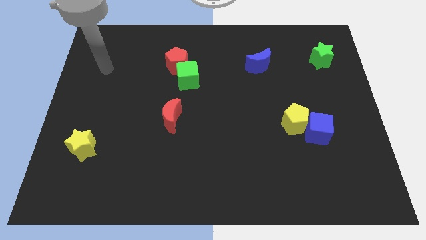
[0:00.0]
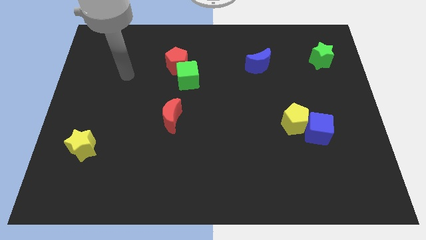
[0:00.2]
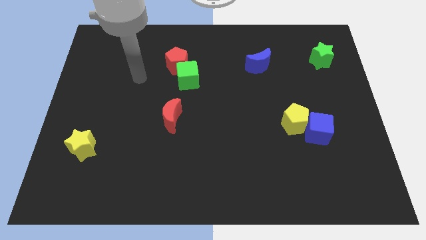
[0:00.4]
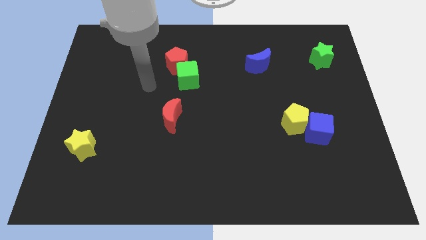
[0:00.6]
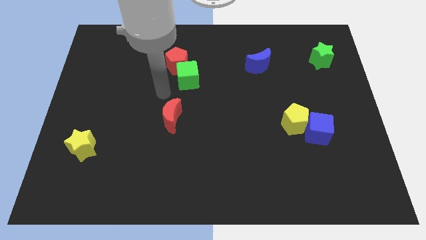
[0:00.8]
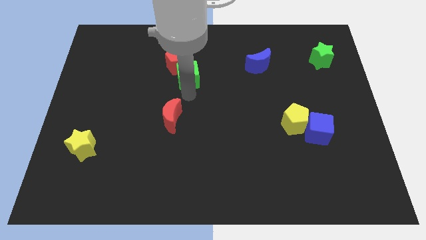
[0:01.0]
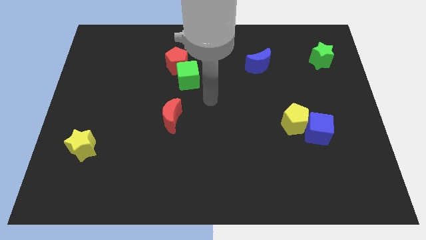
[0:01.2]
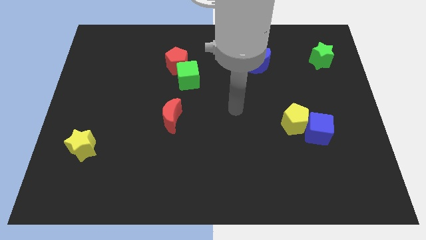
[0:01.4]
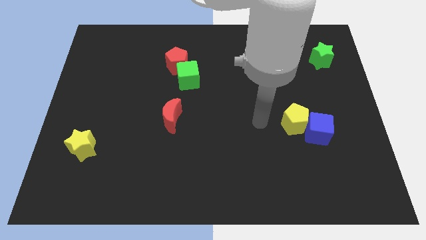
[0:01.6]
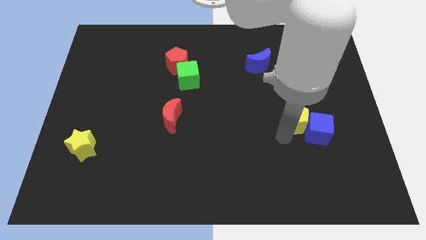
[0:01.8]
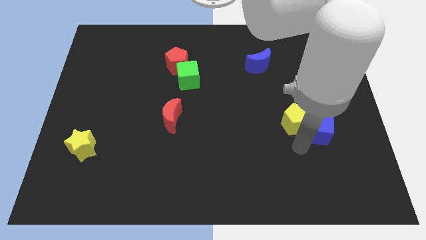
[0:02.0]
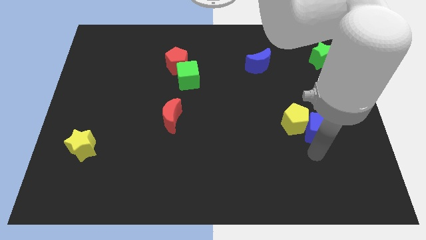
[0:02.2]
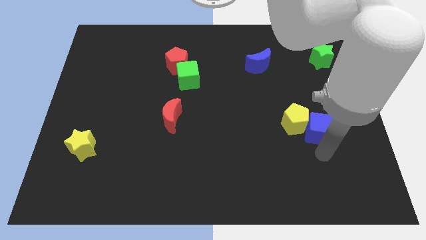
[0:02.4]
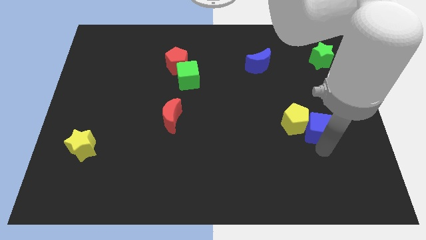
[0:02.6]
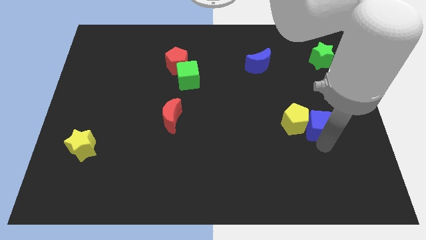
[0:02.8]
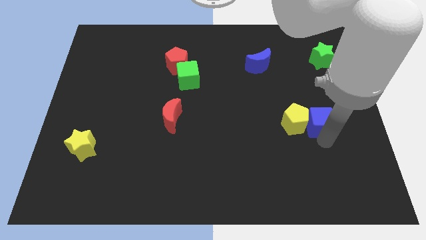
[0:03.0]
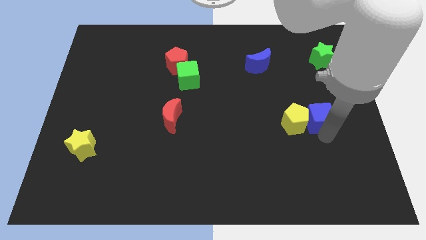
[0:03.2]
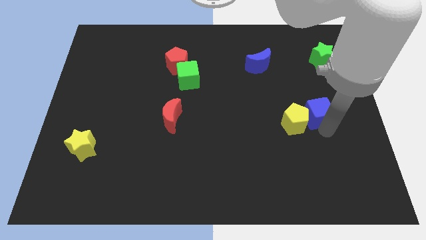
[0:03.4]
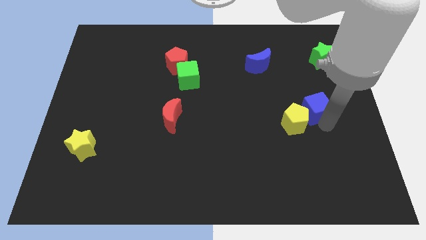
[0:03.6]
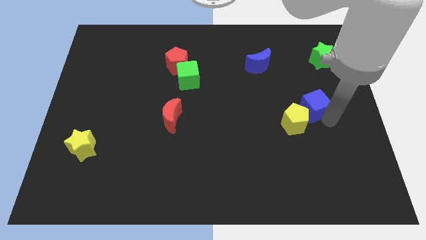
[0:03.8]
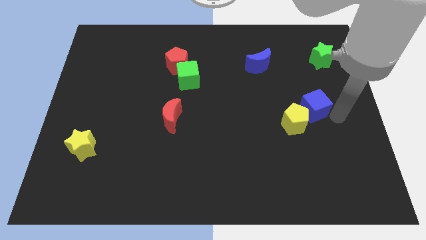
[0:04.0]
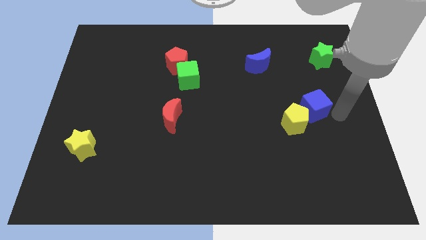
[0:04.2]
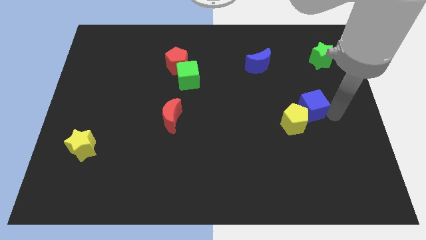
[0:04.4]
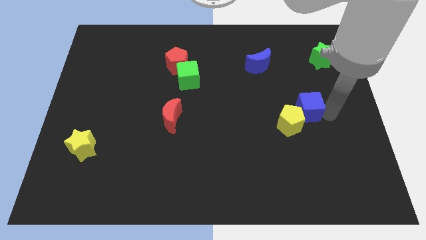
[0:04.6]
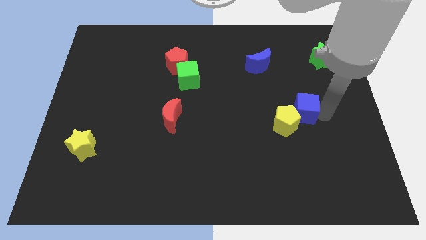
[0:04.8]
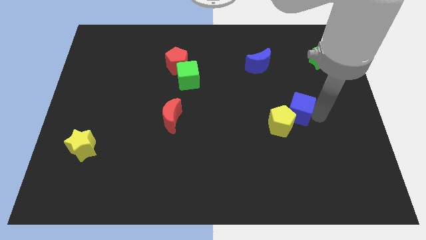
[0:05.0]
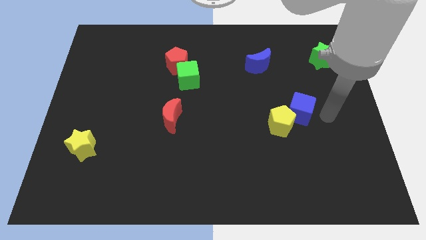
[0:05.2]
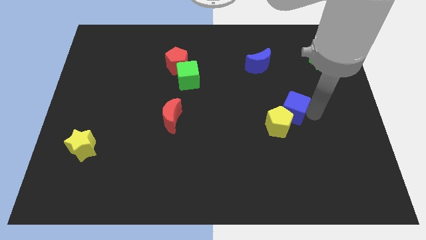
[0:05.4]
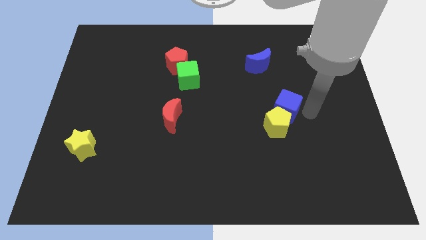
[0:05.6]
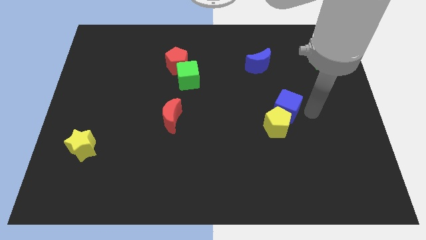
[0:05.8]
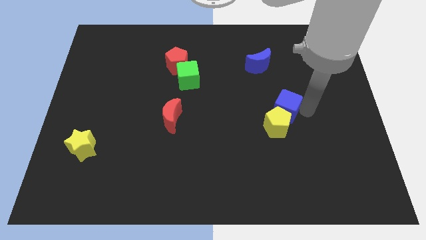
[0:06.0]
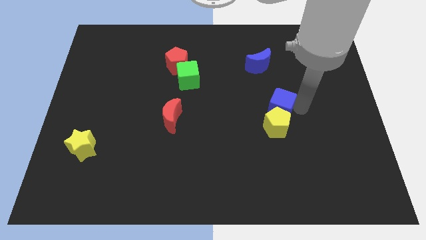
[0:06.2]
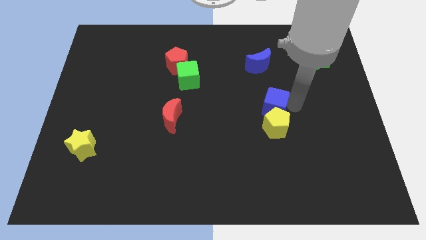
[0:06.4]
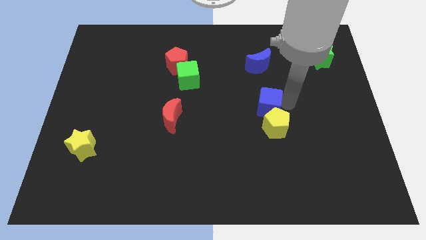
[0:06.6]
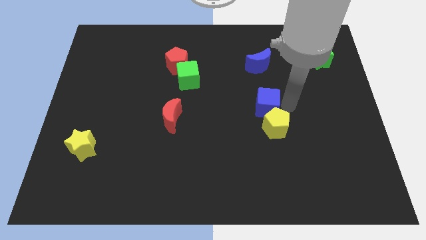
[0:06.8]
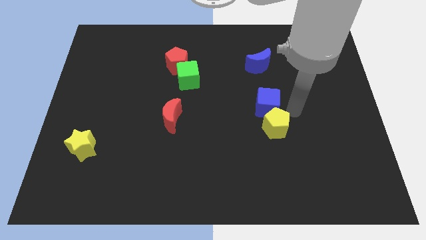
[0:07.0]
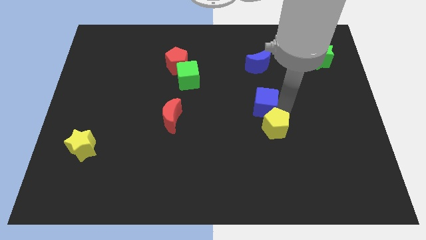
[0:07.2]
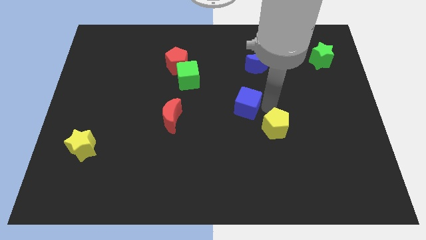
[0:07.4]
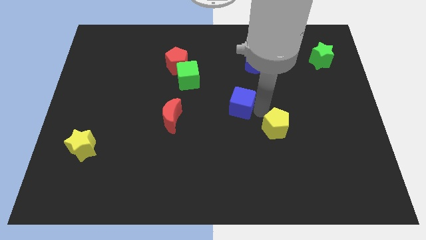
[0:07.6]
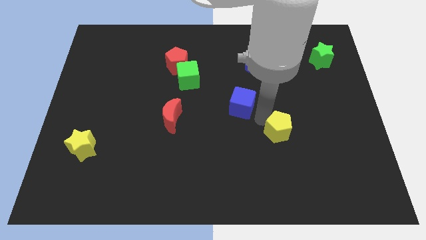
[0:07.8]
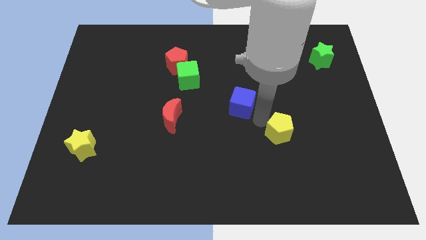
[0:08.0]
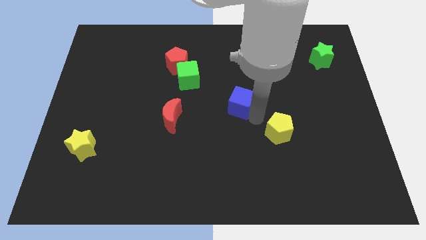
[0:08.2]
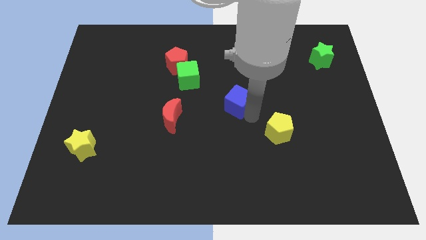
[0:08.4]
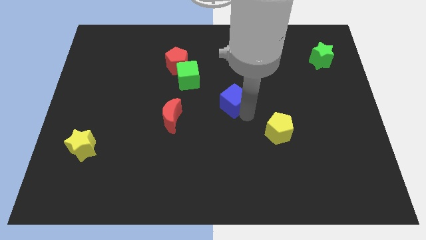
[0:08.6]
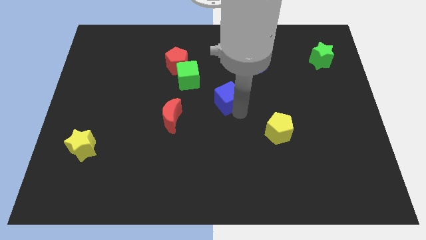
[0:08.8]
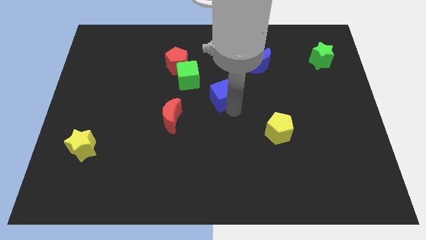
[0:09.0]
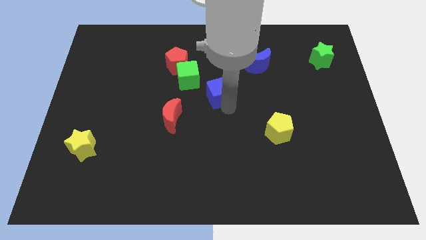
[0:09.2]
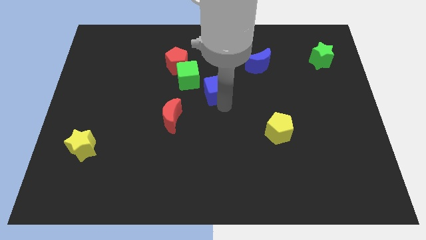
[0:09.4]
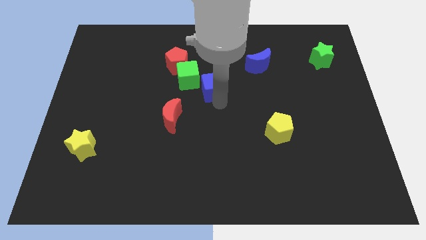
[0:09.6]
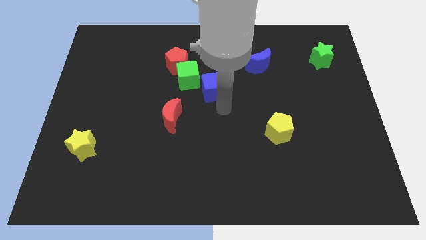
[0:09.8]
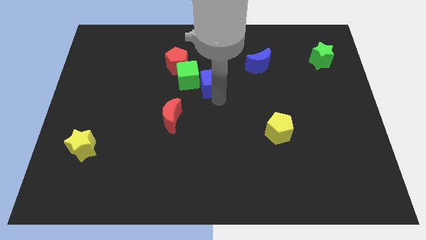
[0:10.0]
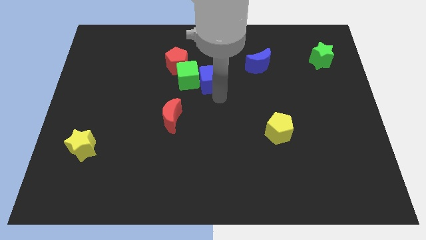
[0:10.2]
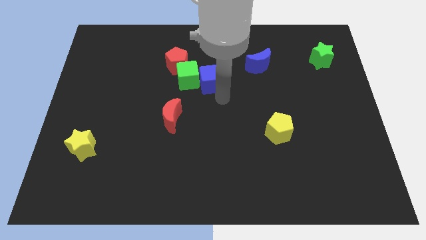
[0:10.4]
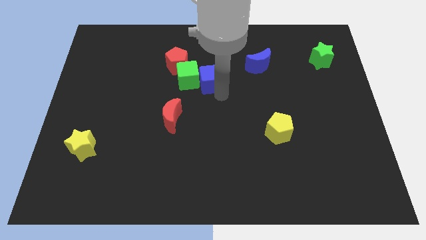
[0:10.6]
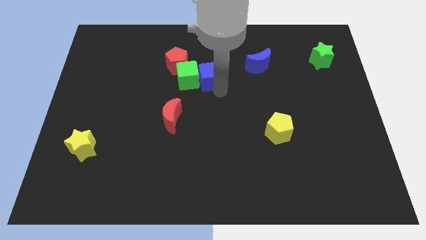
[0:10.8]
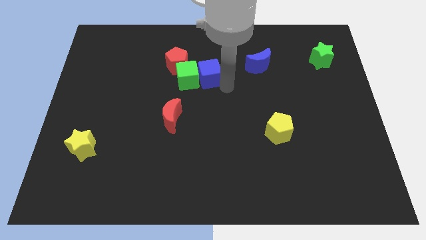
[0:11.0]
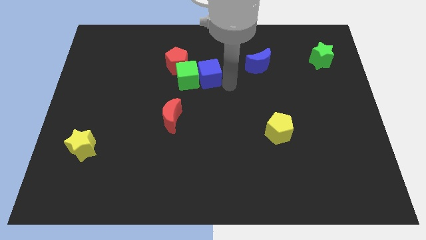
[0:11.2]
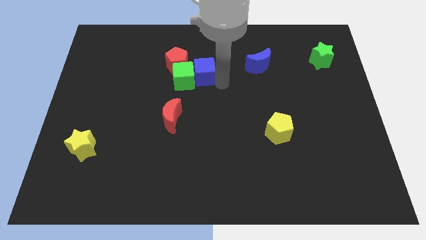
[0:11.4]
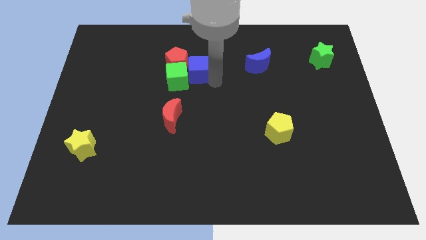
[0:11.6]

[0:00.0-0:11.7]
push the blue cube towards the red pentagon

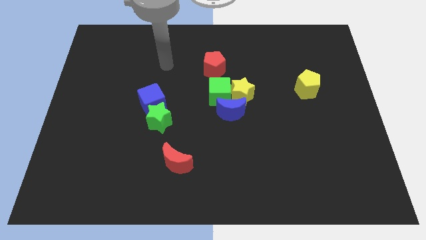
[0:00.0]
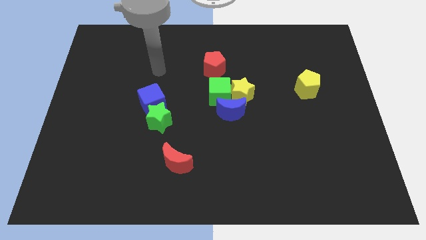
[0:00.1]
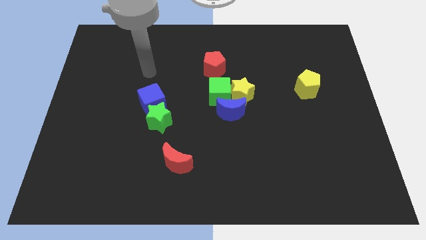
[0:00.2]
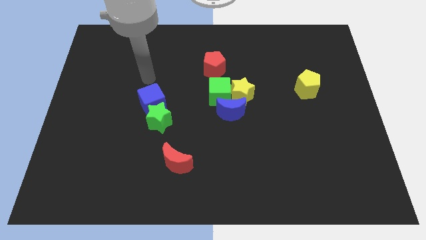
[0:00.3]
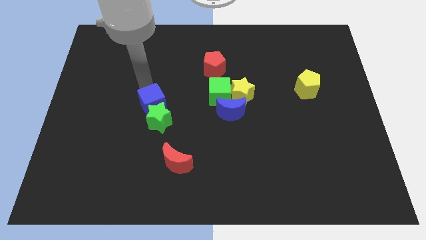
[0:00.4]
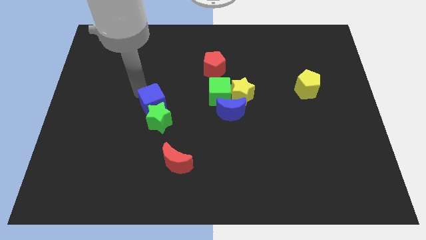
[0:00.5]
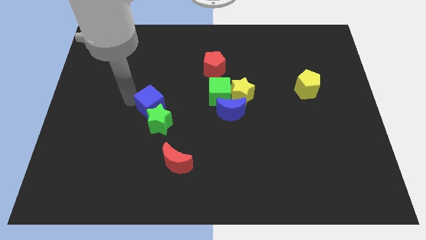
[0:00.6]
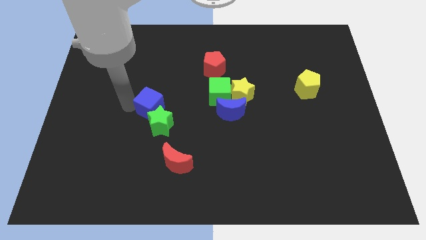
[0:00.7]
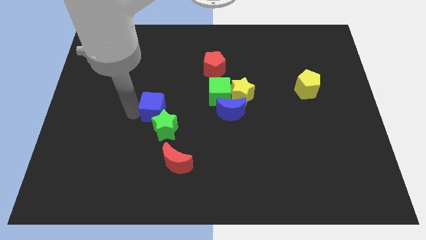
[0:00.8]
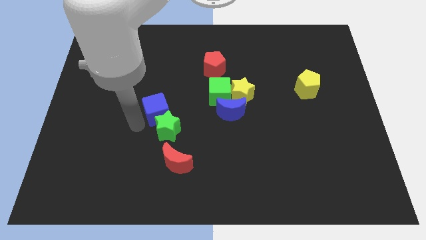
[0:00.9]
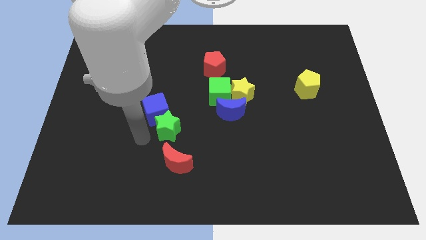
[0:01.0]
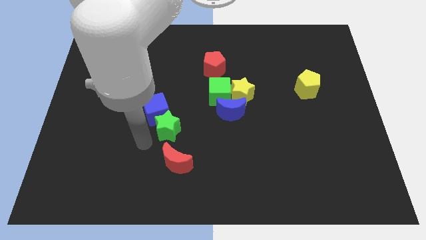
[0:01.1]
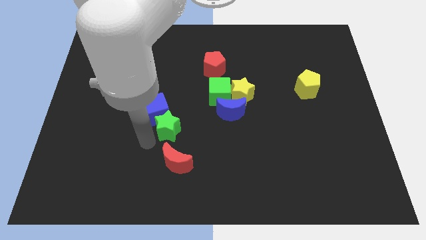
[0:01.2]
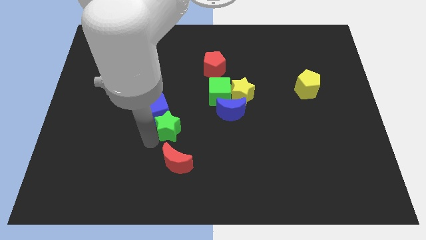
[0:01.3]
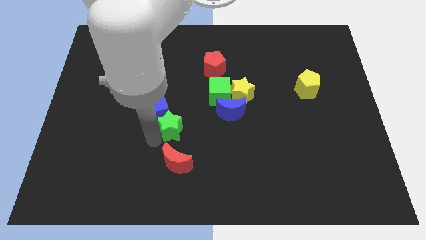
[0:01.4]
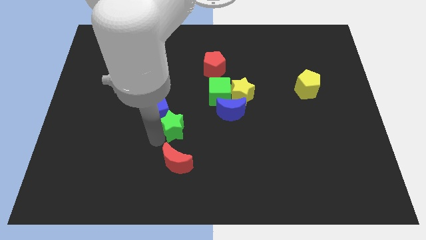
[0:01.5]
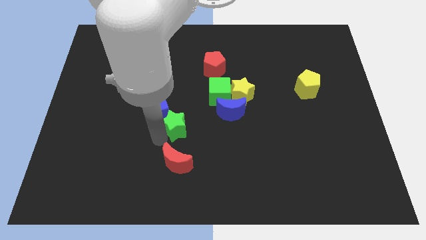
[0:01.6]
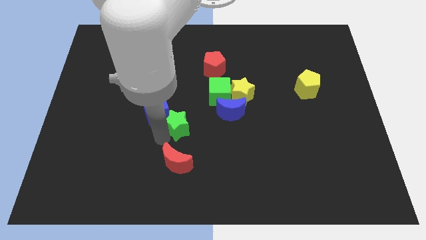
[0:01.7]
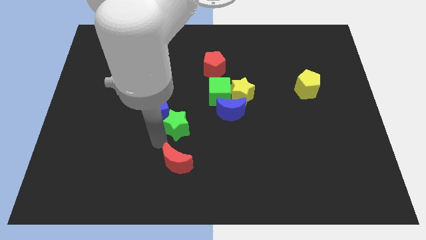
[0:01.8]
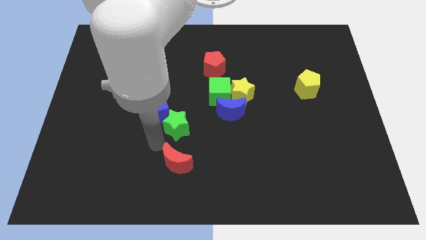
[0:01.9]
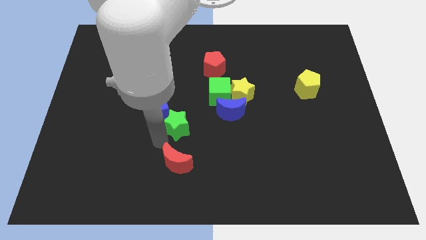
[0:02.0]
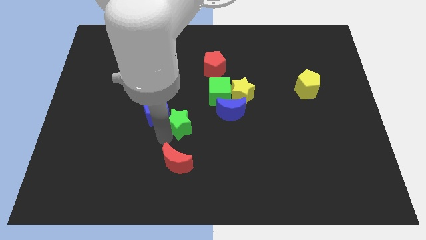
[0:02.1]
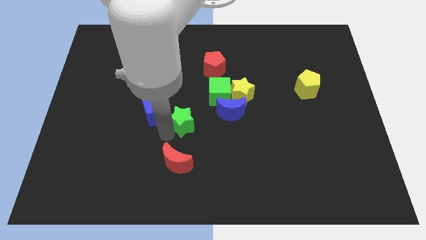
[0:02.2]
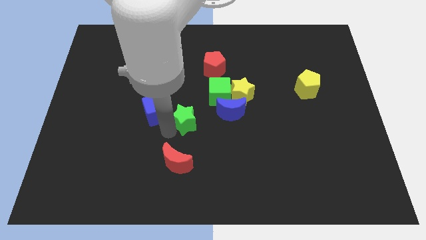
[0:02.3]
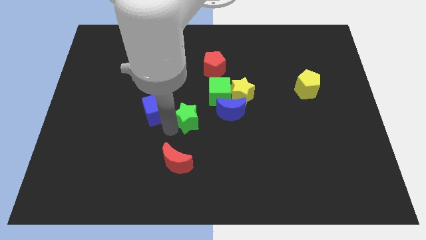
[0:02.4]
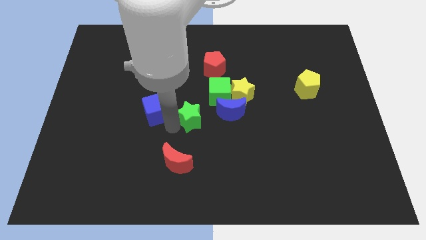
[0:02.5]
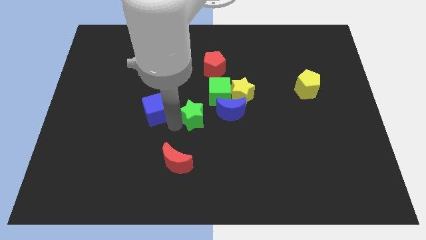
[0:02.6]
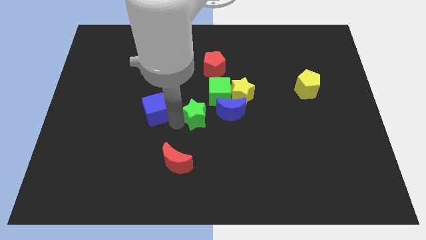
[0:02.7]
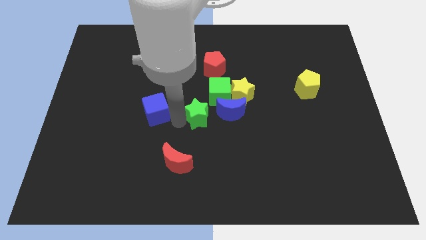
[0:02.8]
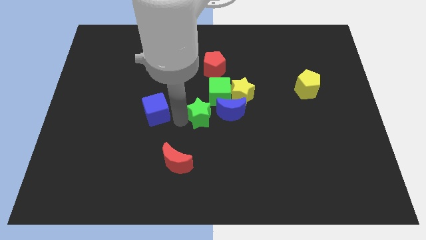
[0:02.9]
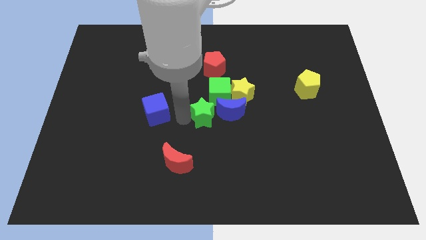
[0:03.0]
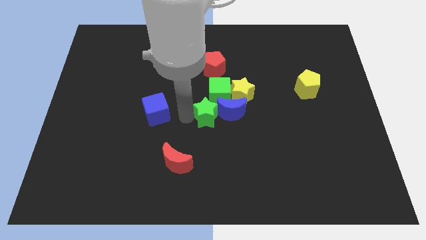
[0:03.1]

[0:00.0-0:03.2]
put the green star to the blue moon
